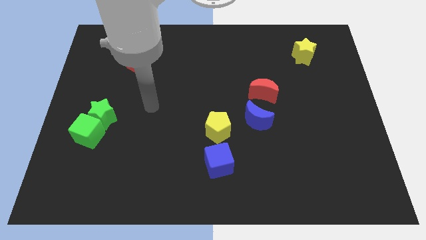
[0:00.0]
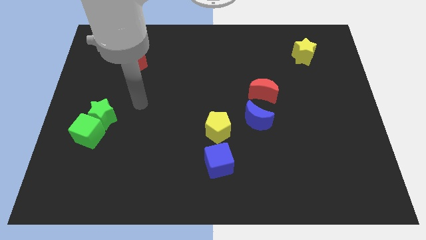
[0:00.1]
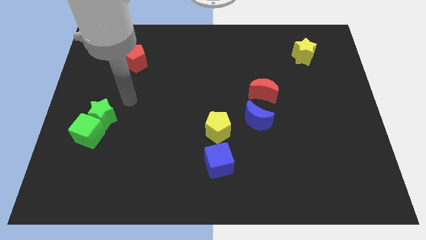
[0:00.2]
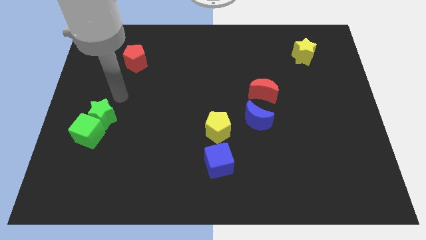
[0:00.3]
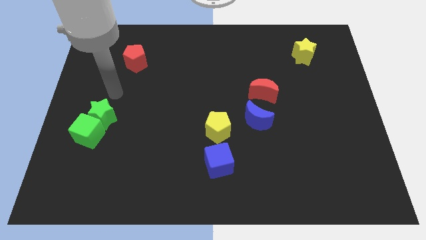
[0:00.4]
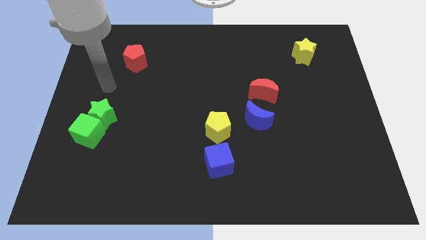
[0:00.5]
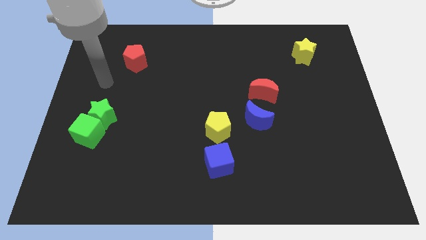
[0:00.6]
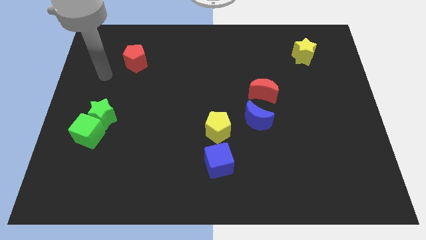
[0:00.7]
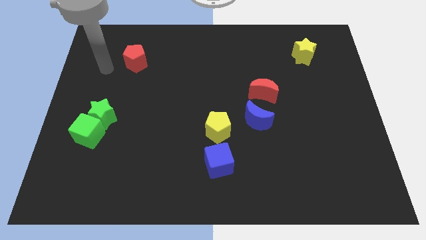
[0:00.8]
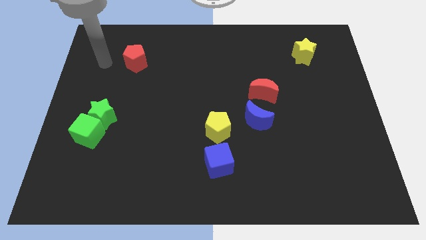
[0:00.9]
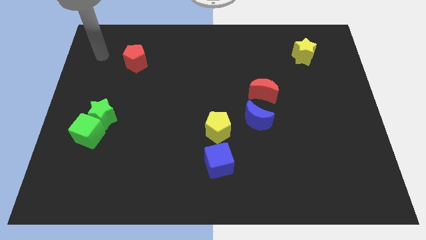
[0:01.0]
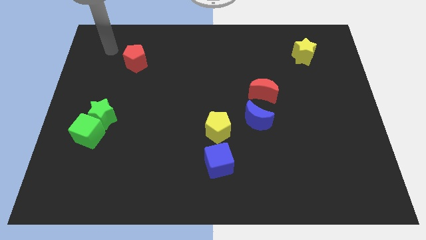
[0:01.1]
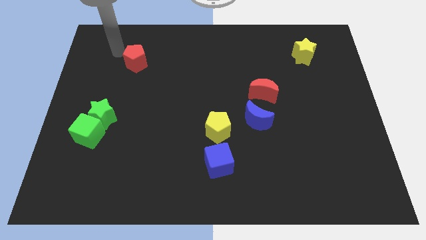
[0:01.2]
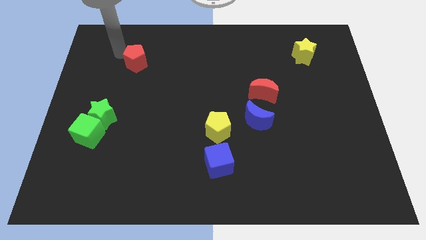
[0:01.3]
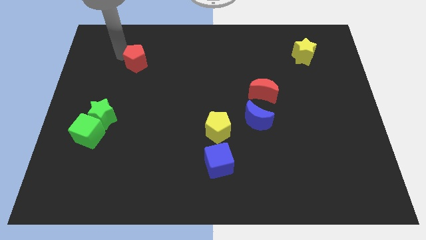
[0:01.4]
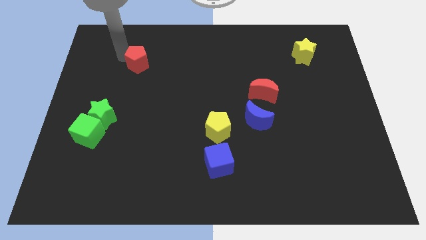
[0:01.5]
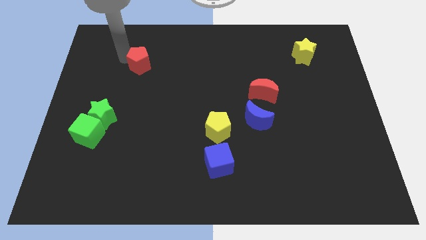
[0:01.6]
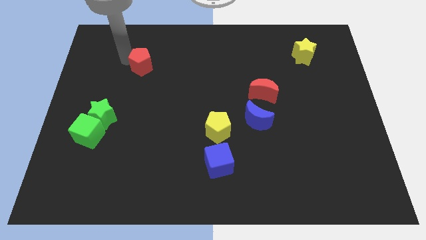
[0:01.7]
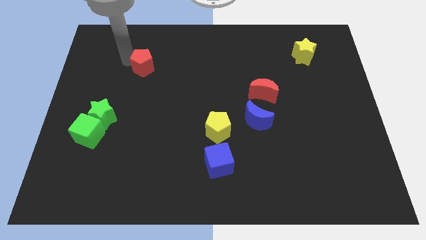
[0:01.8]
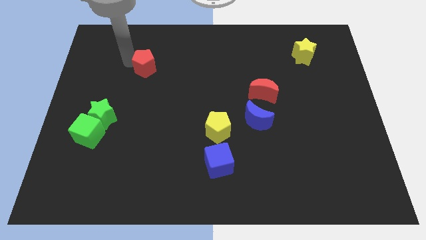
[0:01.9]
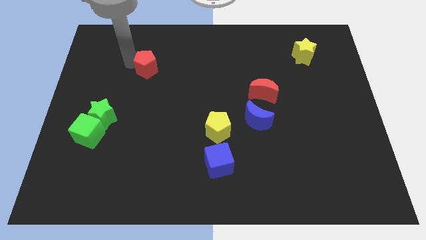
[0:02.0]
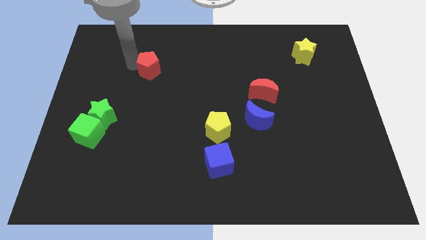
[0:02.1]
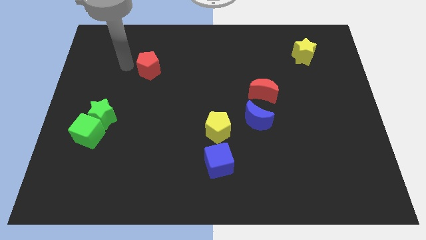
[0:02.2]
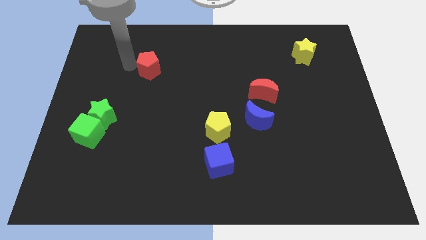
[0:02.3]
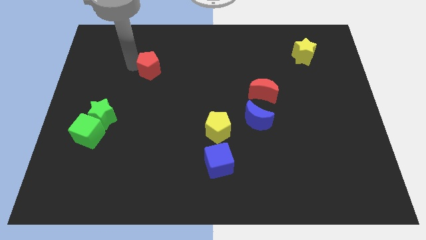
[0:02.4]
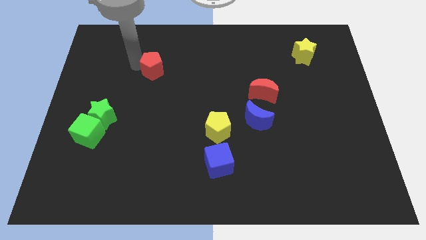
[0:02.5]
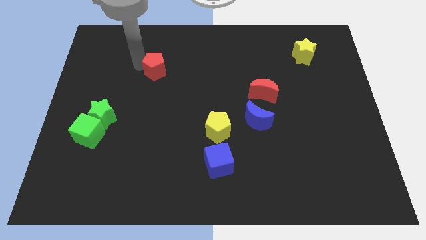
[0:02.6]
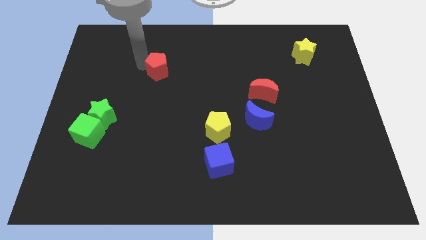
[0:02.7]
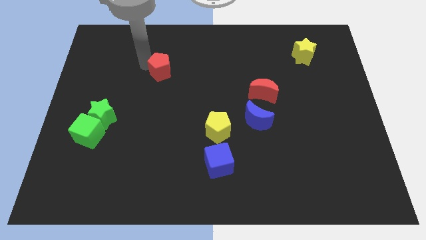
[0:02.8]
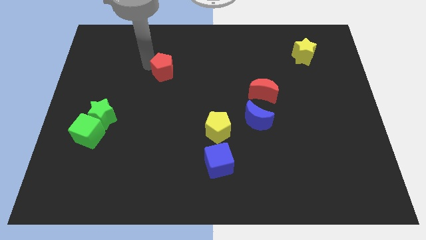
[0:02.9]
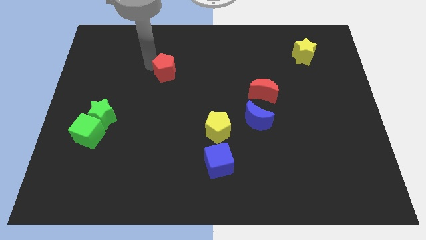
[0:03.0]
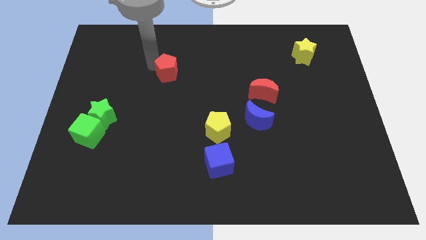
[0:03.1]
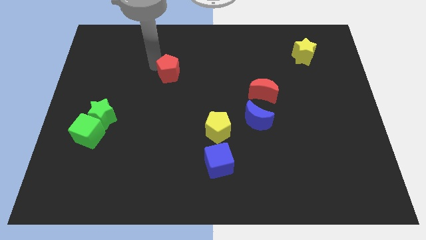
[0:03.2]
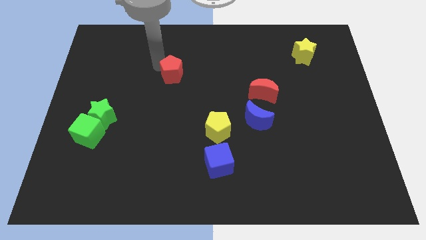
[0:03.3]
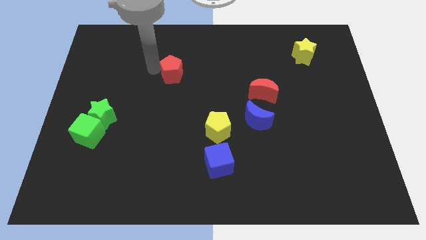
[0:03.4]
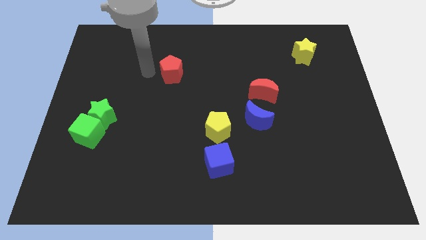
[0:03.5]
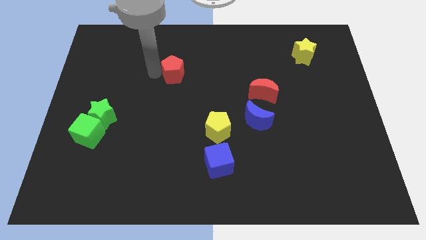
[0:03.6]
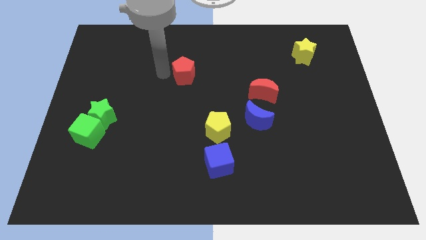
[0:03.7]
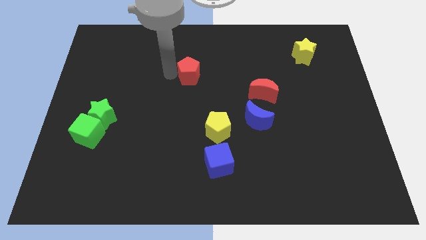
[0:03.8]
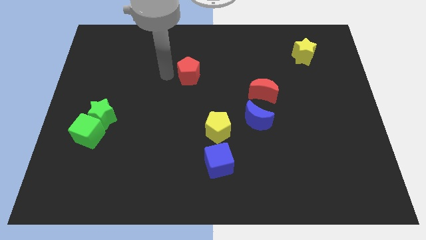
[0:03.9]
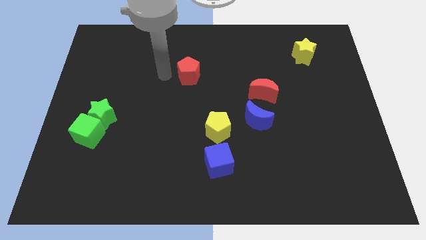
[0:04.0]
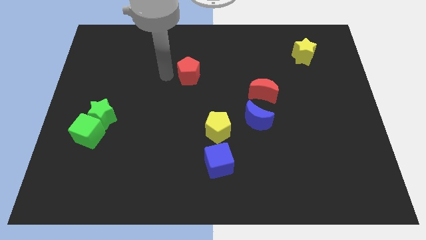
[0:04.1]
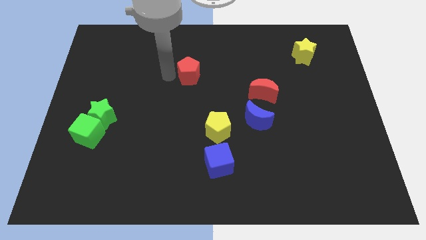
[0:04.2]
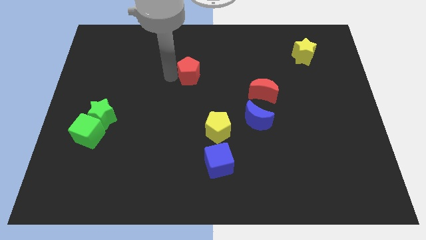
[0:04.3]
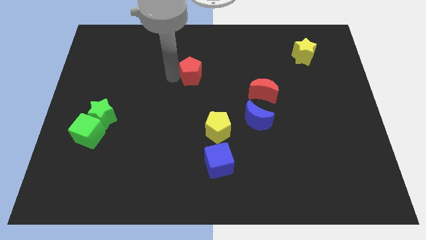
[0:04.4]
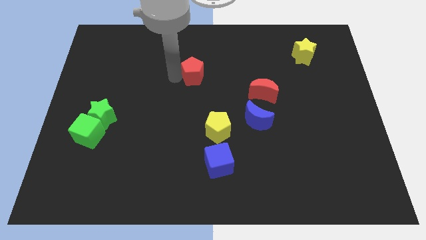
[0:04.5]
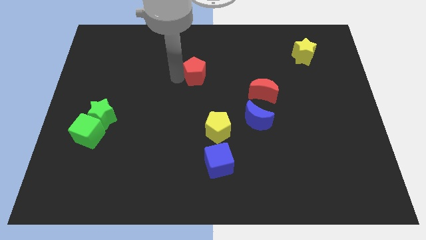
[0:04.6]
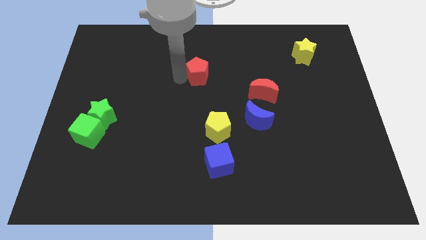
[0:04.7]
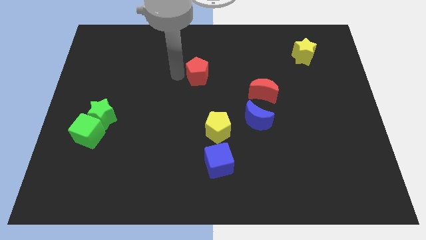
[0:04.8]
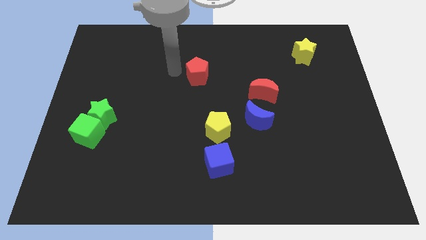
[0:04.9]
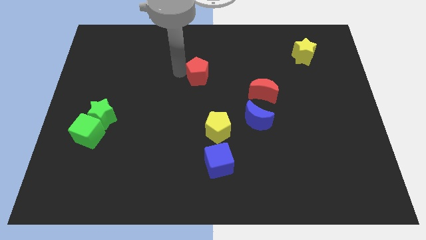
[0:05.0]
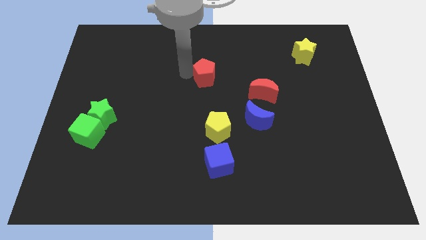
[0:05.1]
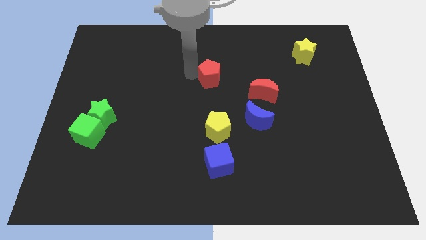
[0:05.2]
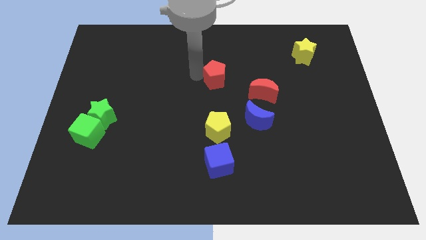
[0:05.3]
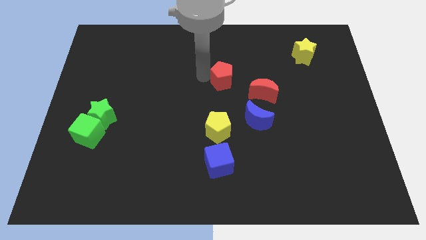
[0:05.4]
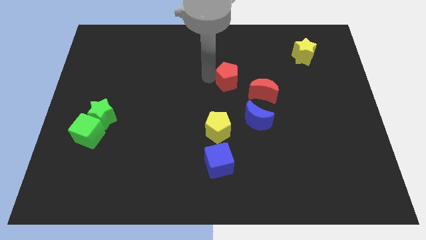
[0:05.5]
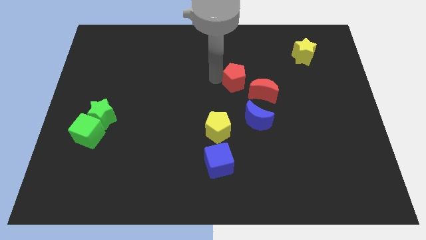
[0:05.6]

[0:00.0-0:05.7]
push the red pentagon to the top of the blue moon

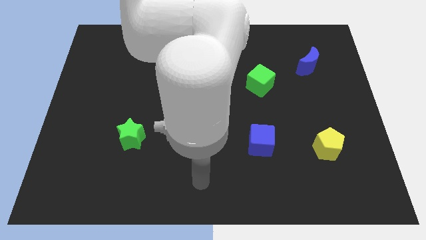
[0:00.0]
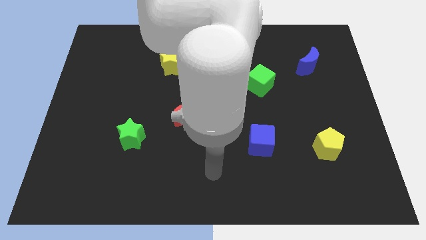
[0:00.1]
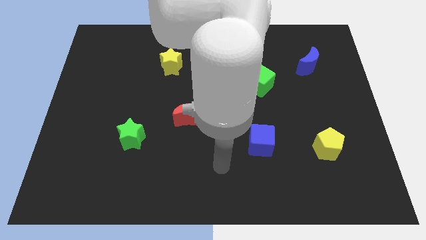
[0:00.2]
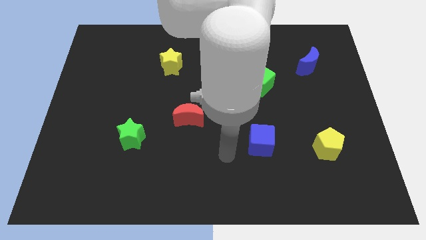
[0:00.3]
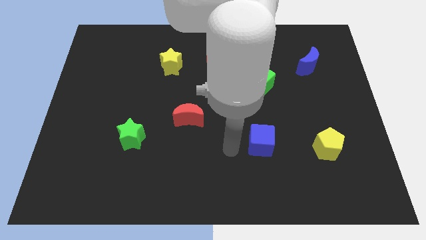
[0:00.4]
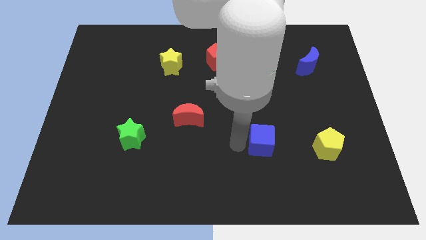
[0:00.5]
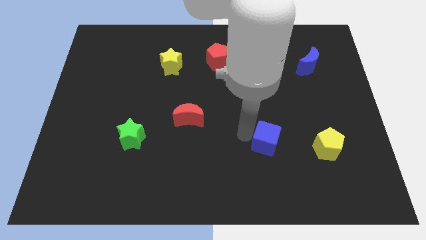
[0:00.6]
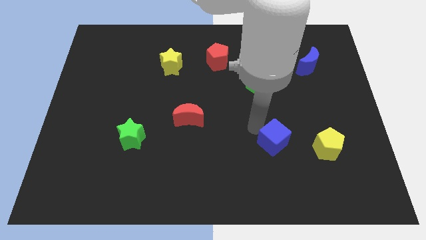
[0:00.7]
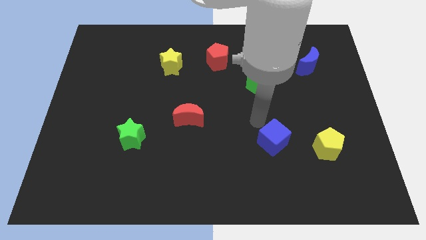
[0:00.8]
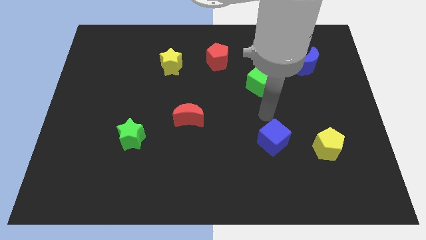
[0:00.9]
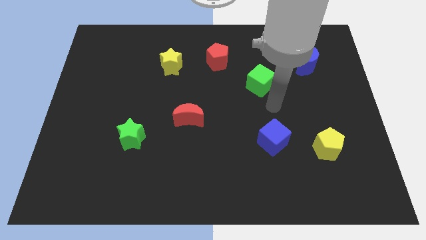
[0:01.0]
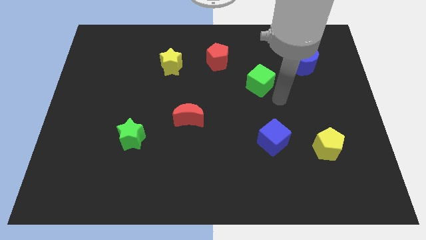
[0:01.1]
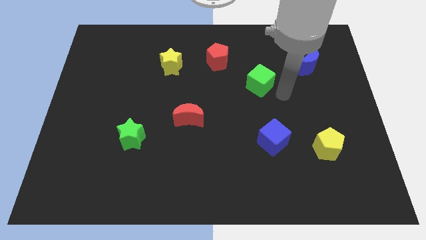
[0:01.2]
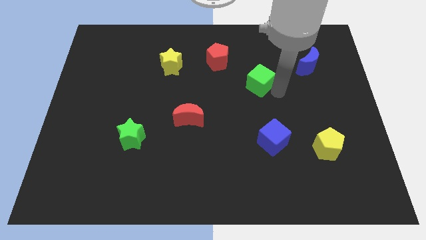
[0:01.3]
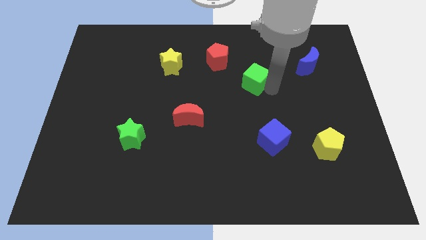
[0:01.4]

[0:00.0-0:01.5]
move the green cube diagonally down and to the right of the red pentagon
